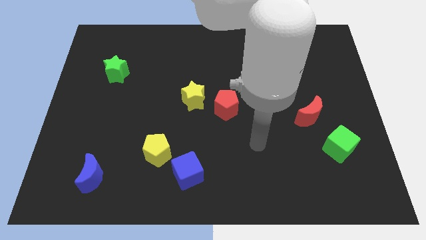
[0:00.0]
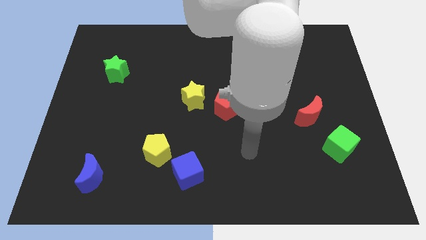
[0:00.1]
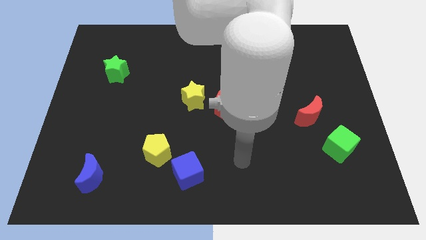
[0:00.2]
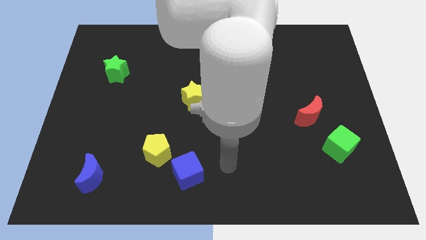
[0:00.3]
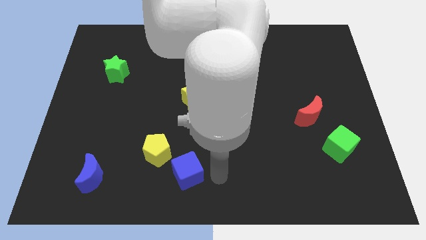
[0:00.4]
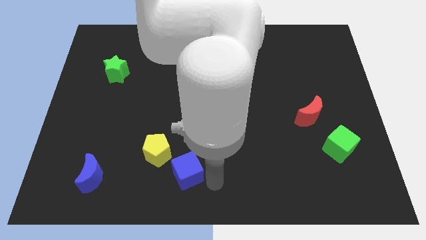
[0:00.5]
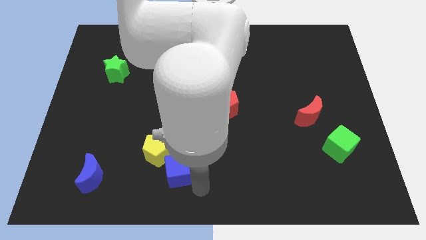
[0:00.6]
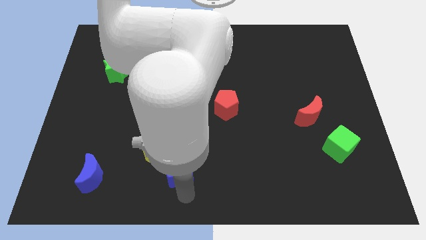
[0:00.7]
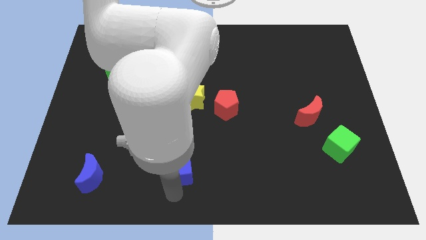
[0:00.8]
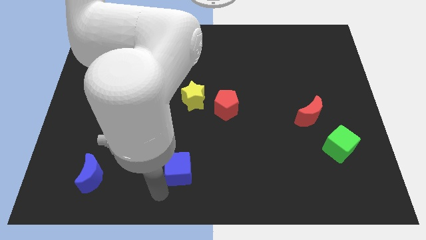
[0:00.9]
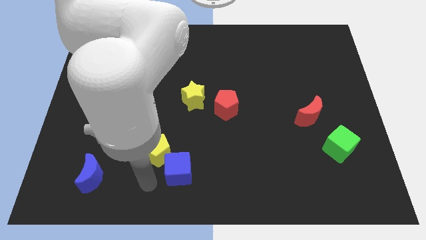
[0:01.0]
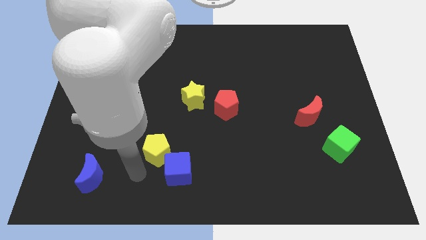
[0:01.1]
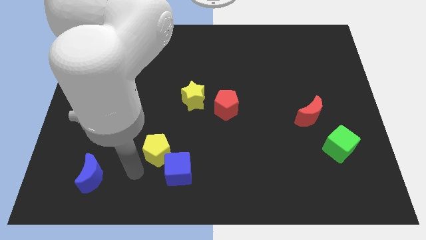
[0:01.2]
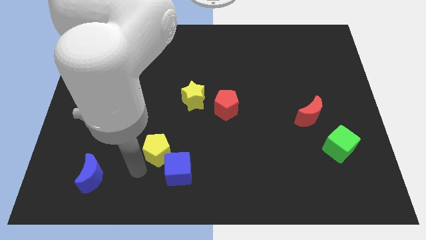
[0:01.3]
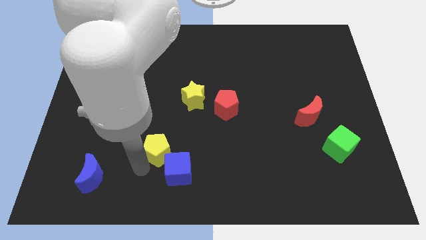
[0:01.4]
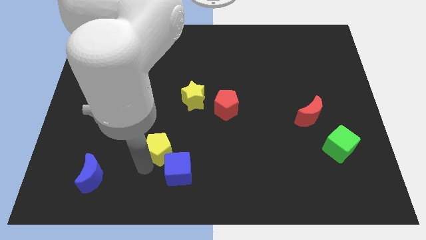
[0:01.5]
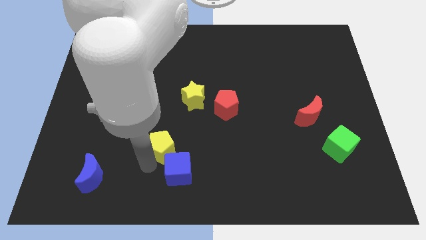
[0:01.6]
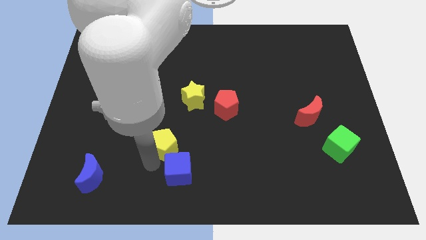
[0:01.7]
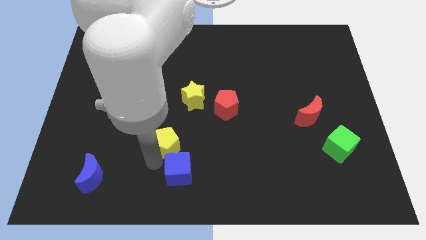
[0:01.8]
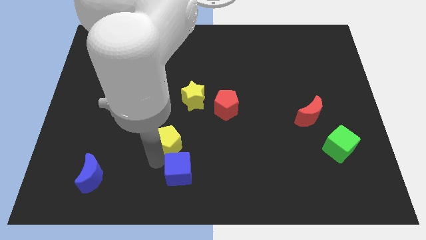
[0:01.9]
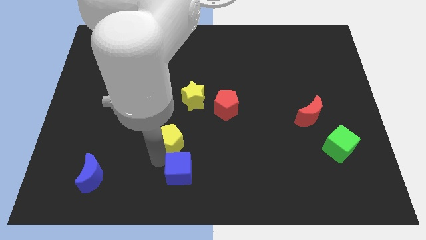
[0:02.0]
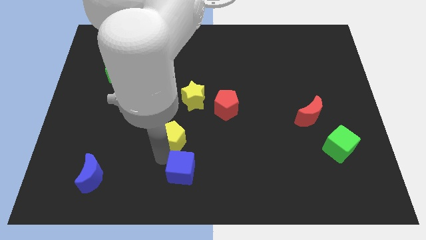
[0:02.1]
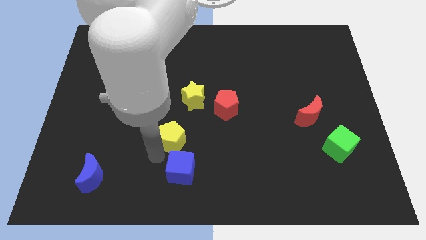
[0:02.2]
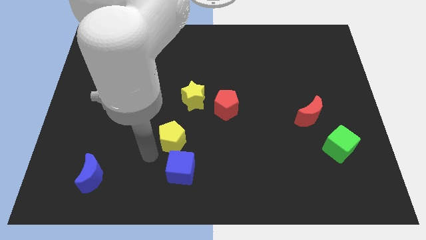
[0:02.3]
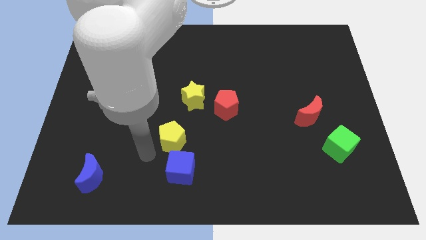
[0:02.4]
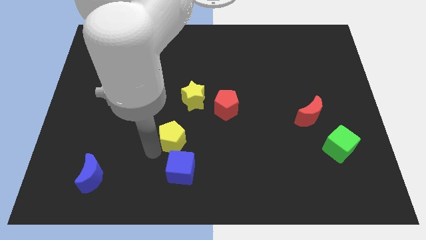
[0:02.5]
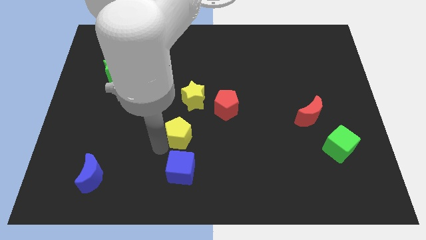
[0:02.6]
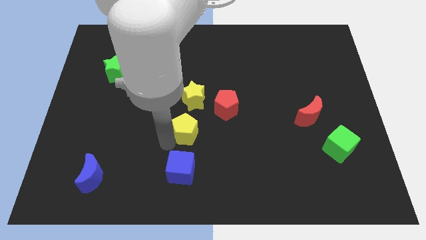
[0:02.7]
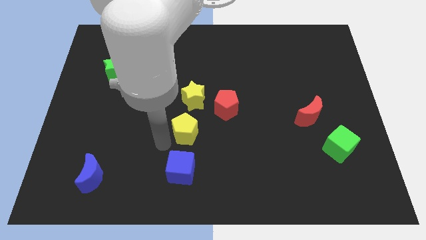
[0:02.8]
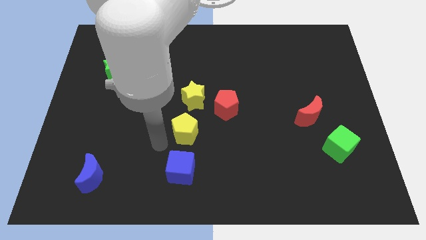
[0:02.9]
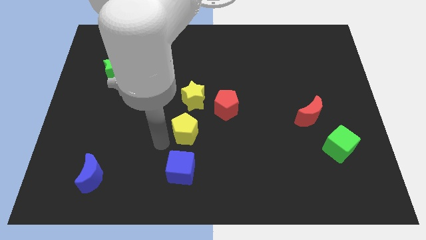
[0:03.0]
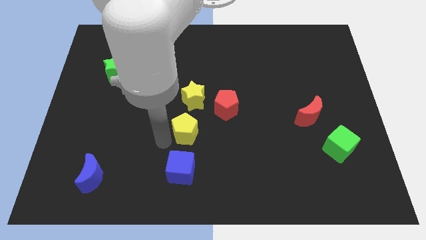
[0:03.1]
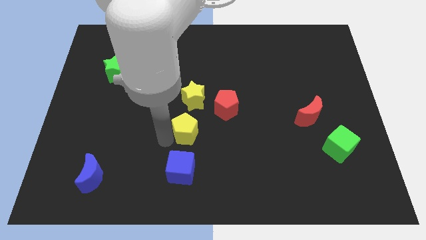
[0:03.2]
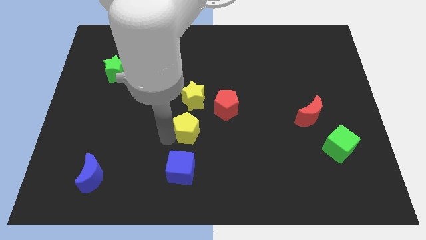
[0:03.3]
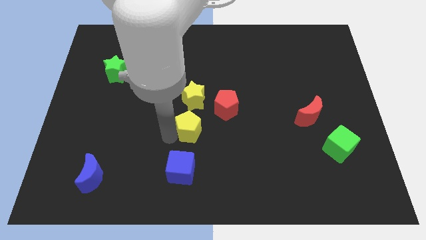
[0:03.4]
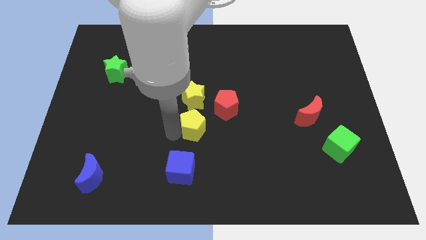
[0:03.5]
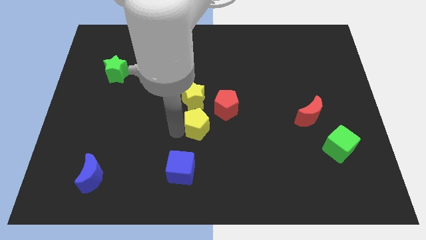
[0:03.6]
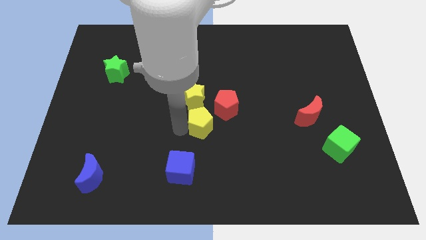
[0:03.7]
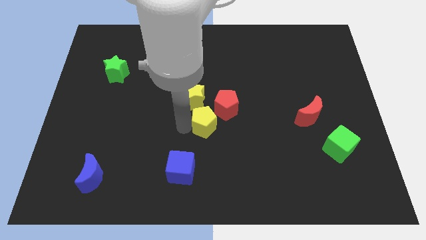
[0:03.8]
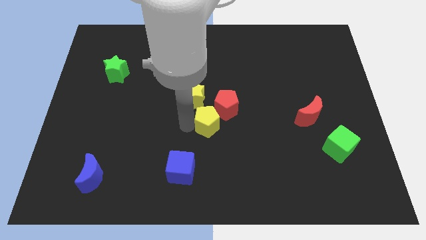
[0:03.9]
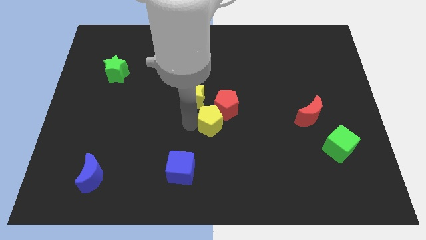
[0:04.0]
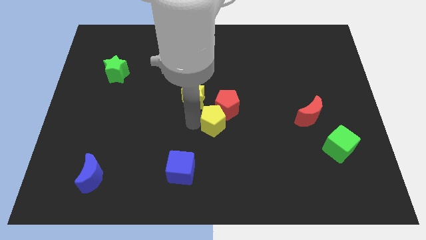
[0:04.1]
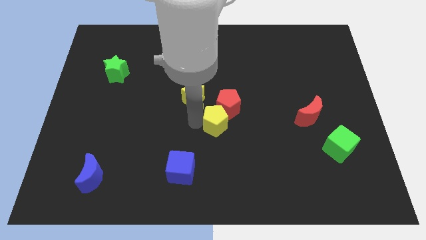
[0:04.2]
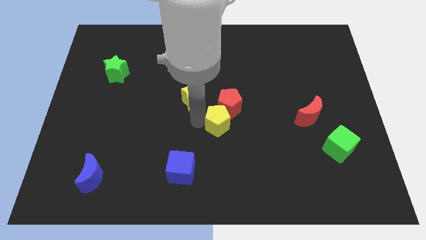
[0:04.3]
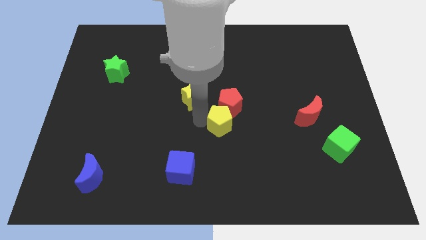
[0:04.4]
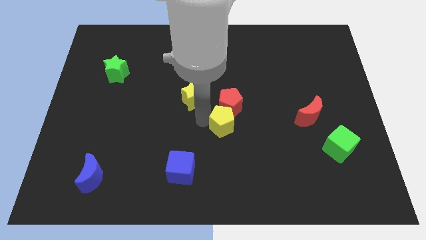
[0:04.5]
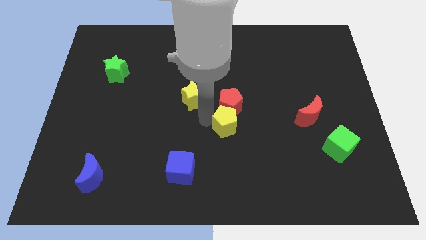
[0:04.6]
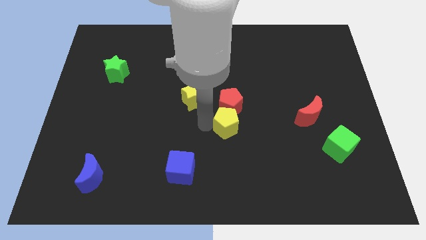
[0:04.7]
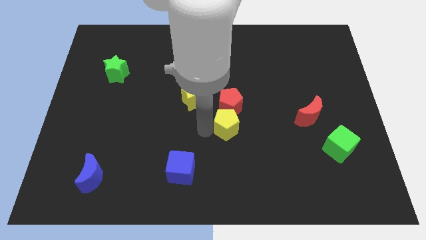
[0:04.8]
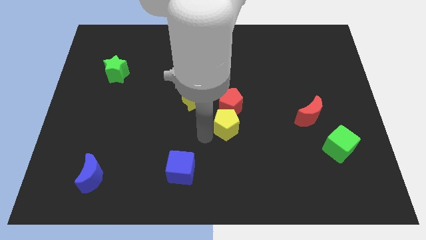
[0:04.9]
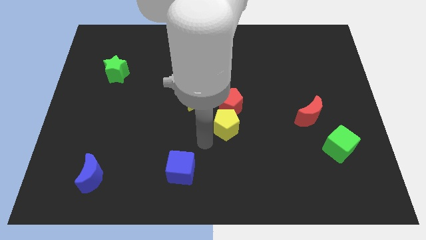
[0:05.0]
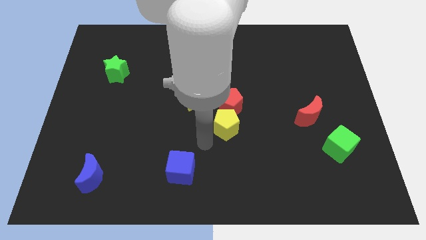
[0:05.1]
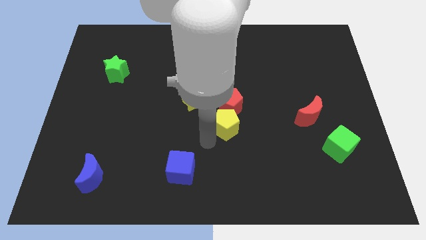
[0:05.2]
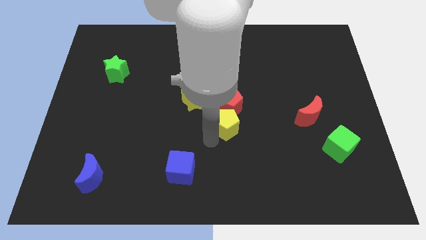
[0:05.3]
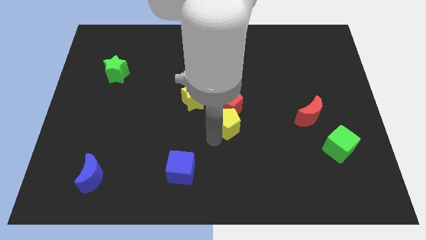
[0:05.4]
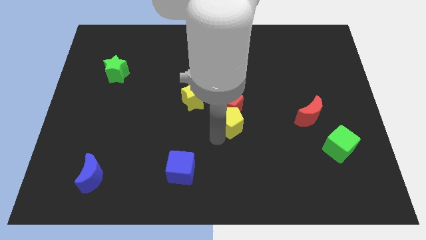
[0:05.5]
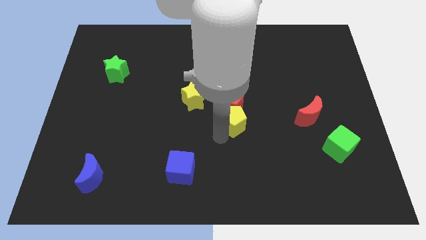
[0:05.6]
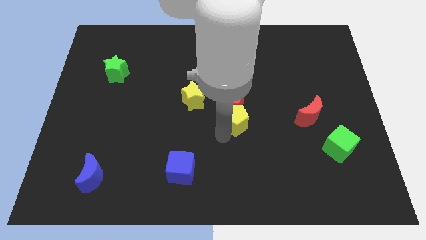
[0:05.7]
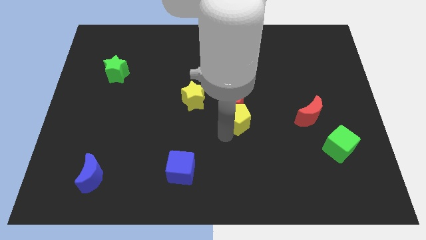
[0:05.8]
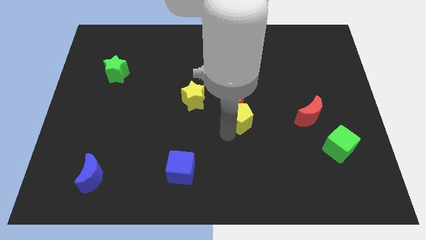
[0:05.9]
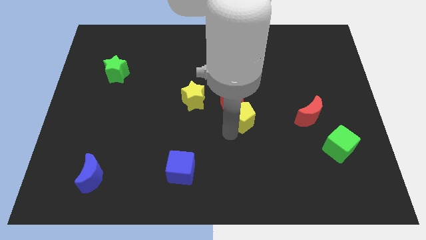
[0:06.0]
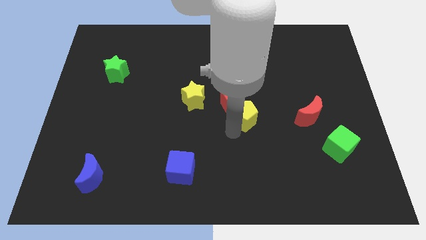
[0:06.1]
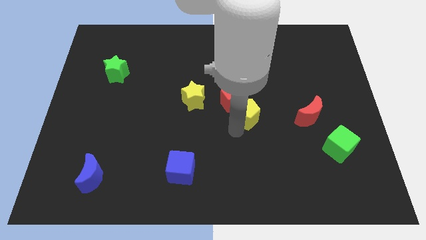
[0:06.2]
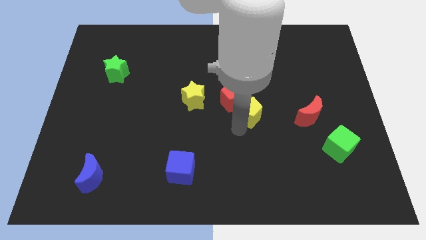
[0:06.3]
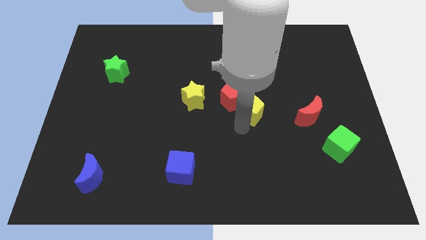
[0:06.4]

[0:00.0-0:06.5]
slide the yellow pentagon up and to the right diagonally

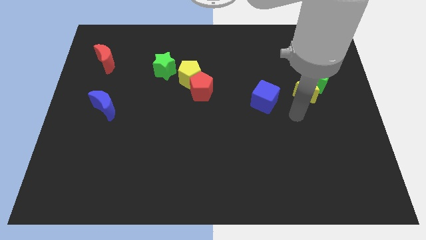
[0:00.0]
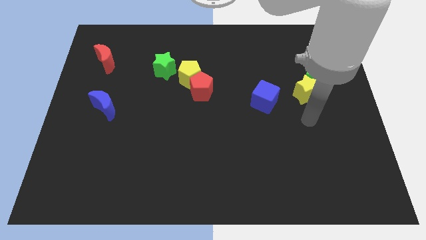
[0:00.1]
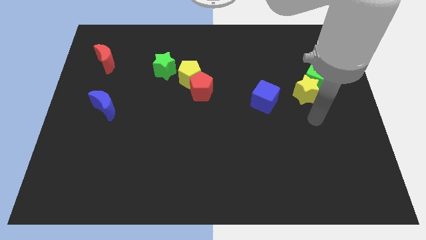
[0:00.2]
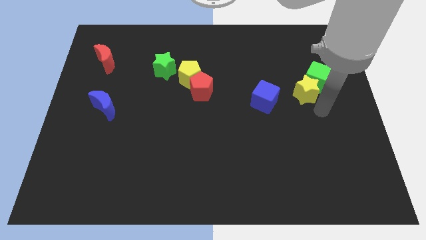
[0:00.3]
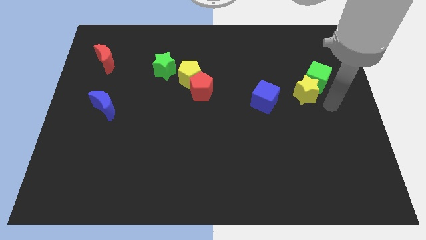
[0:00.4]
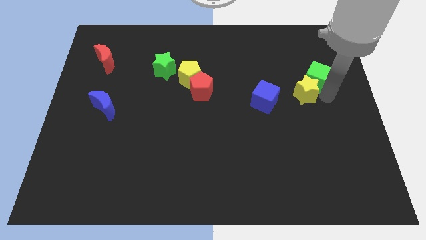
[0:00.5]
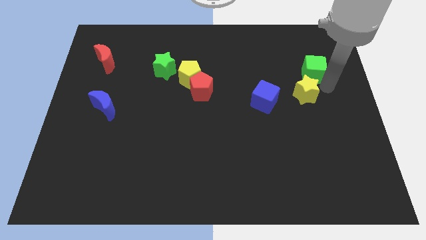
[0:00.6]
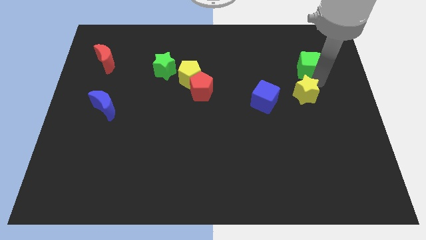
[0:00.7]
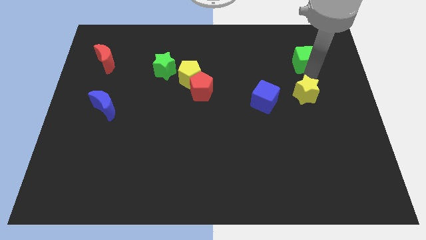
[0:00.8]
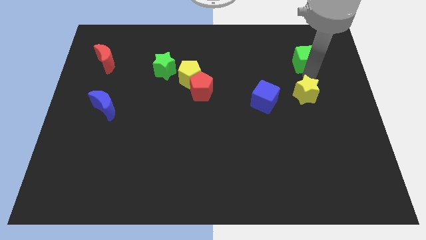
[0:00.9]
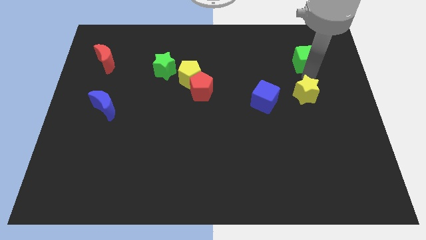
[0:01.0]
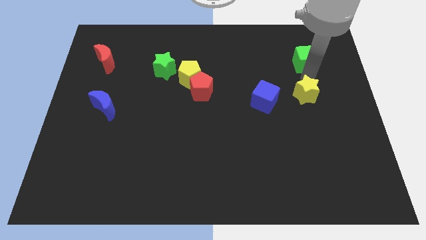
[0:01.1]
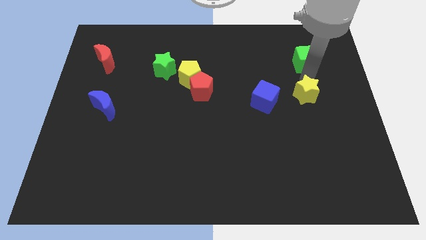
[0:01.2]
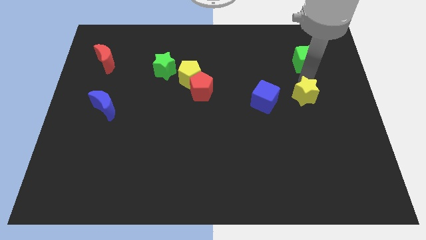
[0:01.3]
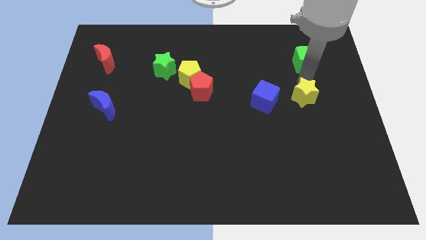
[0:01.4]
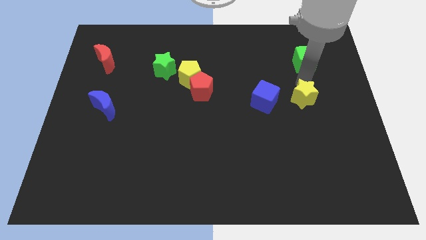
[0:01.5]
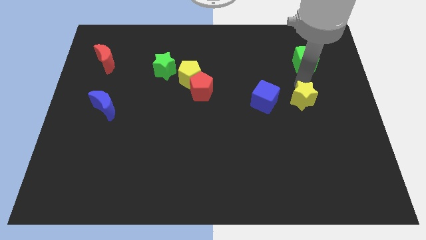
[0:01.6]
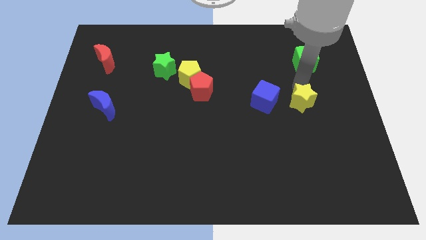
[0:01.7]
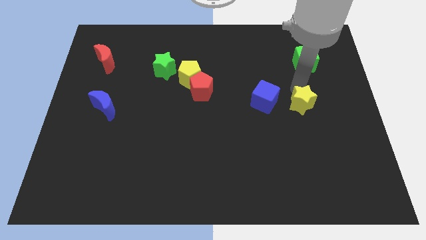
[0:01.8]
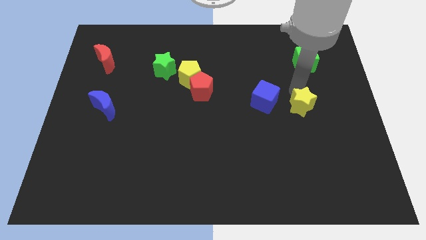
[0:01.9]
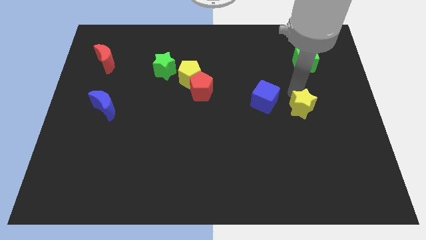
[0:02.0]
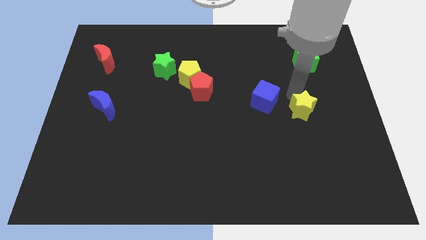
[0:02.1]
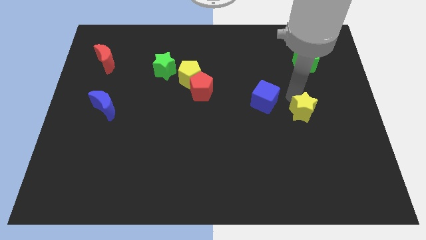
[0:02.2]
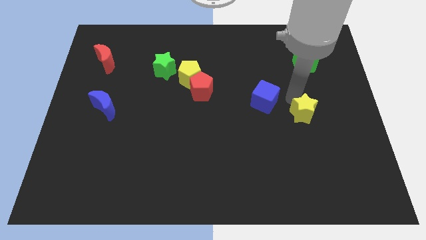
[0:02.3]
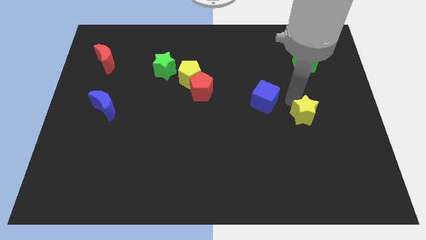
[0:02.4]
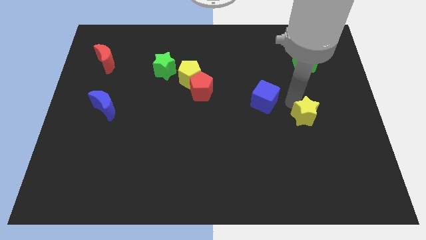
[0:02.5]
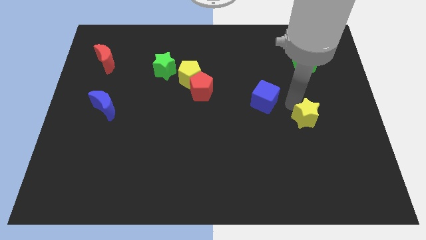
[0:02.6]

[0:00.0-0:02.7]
slide the yellow star down slightly
